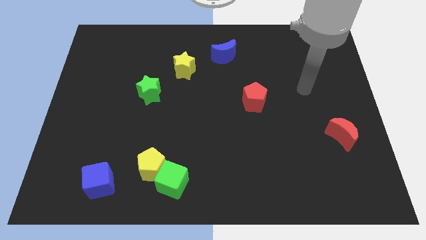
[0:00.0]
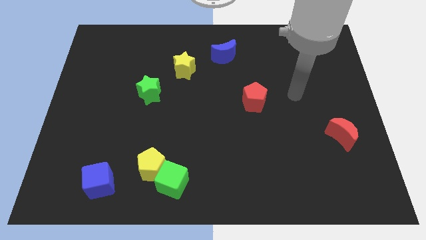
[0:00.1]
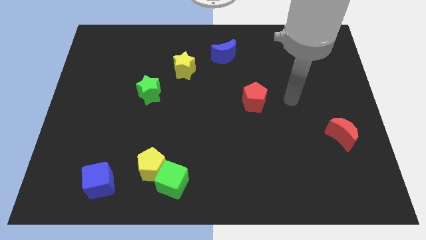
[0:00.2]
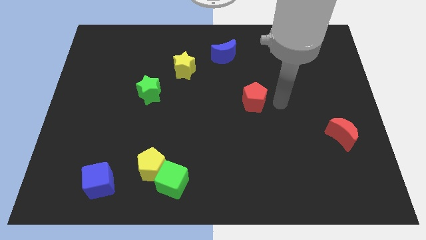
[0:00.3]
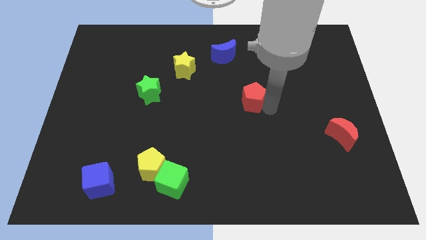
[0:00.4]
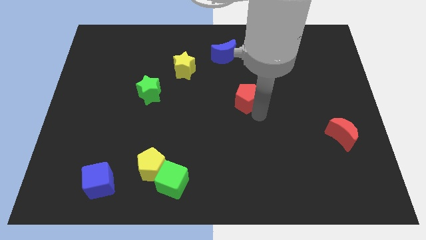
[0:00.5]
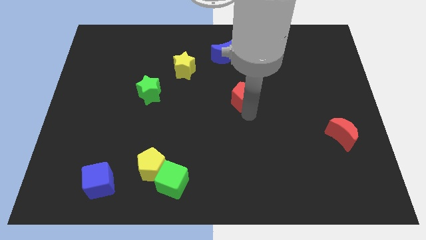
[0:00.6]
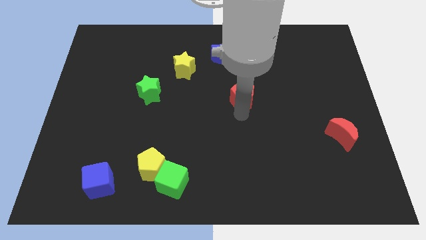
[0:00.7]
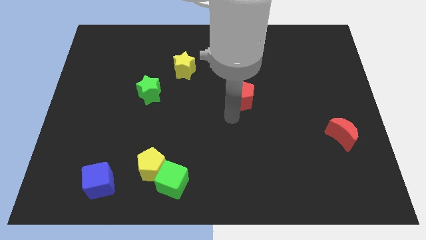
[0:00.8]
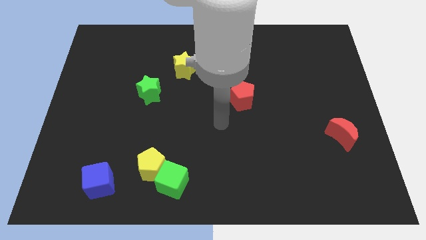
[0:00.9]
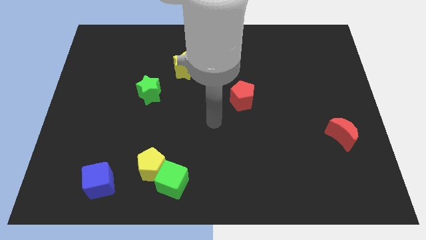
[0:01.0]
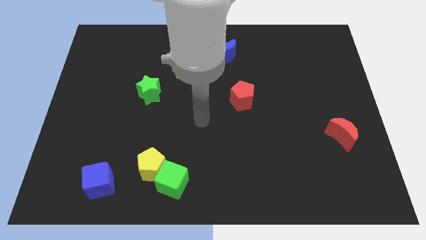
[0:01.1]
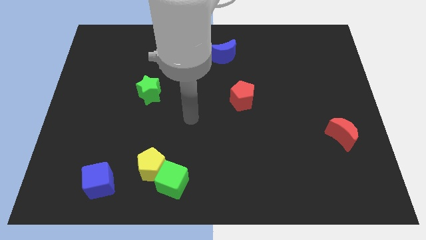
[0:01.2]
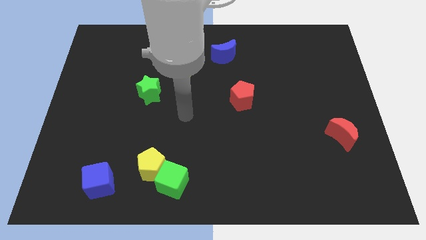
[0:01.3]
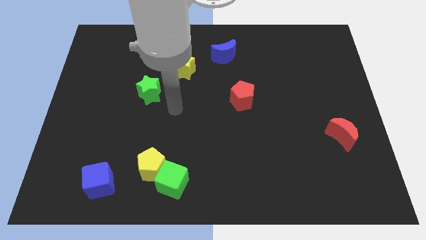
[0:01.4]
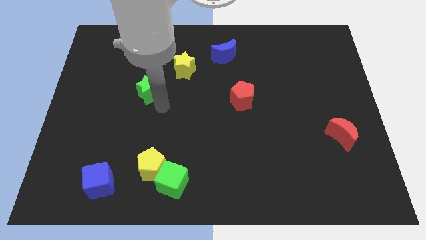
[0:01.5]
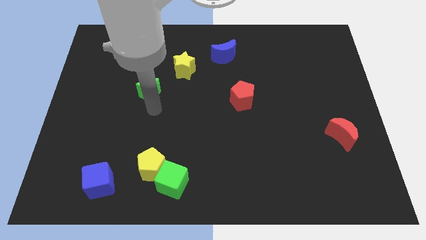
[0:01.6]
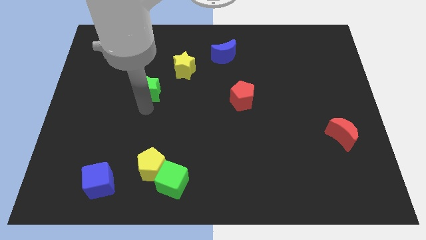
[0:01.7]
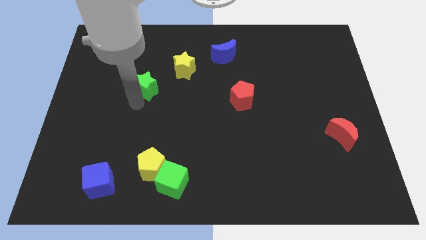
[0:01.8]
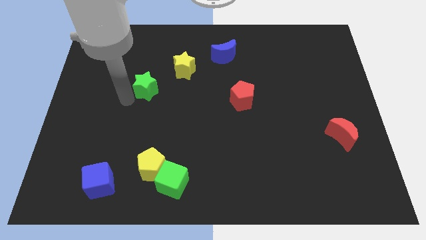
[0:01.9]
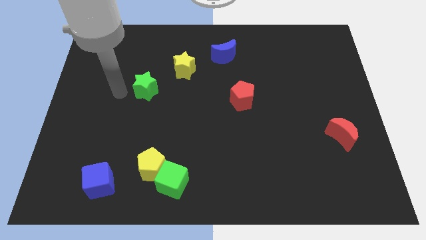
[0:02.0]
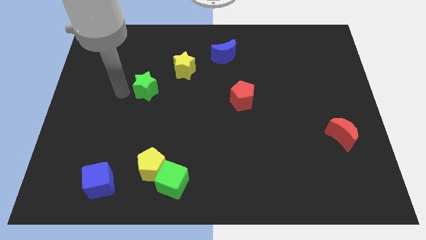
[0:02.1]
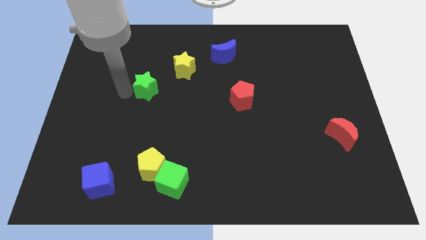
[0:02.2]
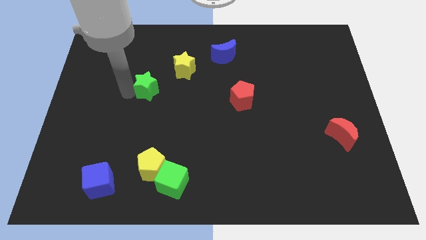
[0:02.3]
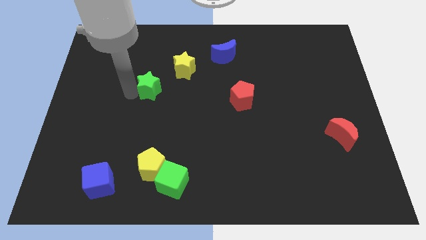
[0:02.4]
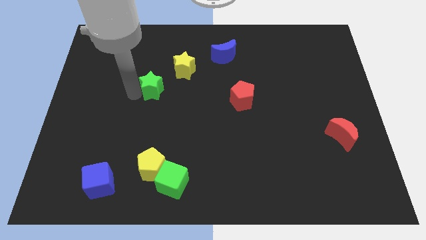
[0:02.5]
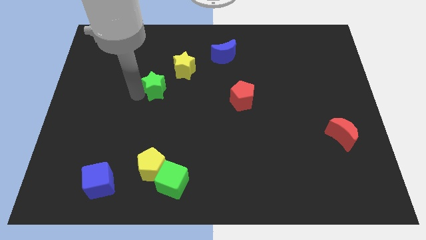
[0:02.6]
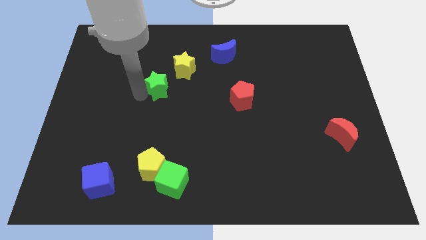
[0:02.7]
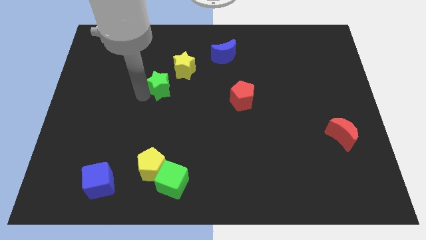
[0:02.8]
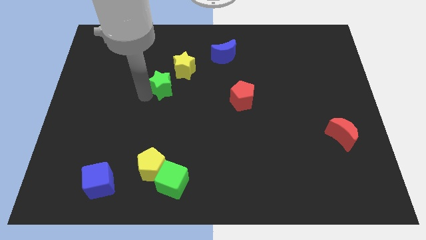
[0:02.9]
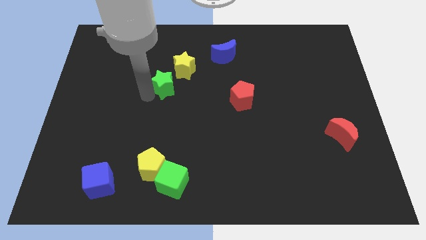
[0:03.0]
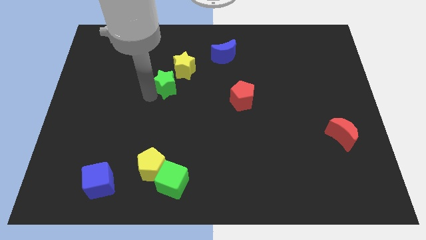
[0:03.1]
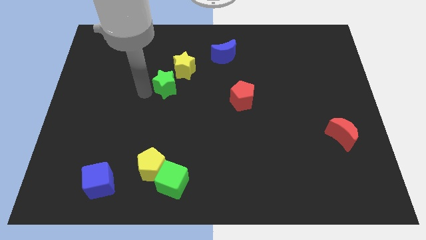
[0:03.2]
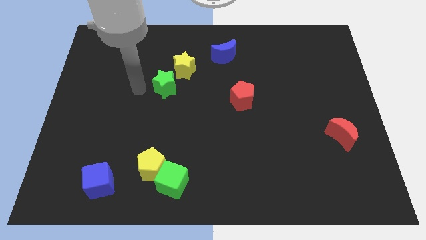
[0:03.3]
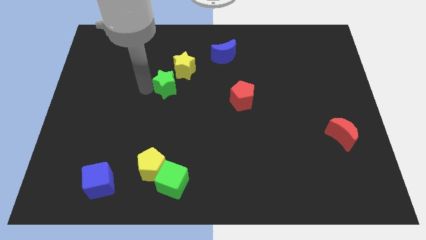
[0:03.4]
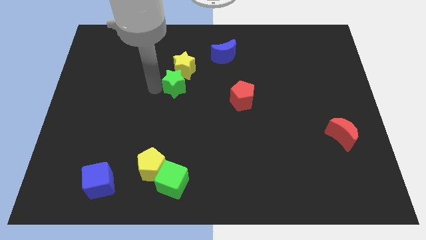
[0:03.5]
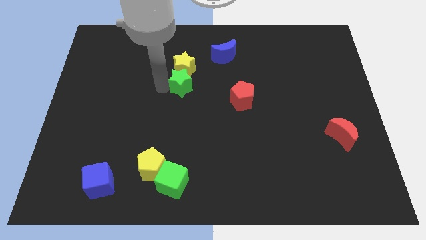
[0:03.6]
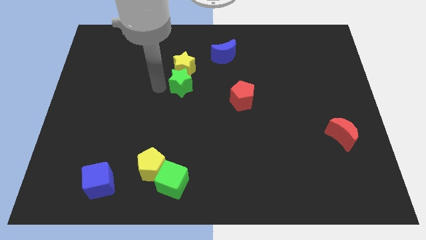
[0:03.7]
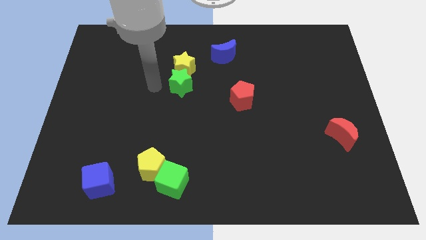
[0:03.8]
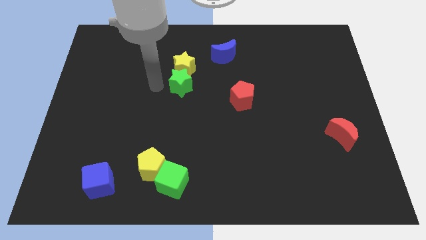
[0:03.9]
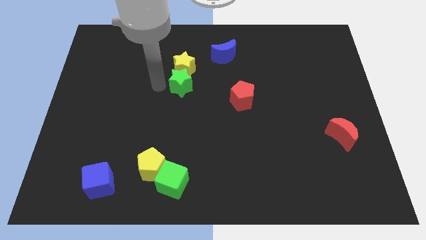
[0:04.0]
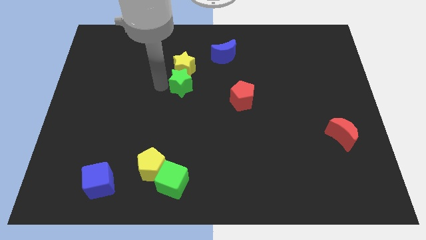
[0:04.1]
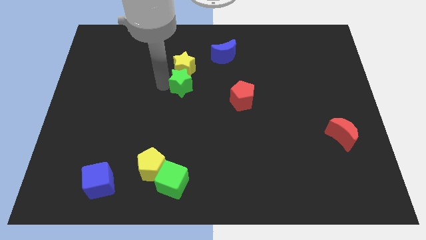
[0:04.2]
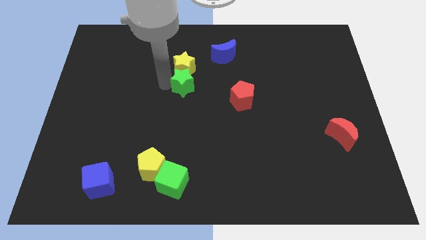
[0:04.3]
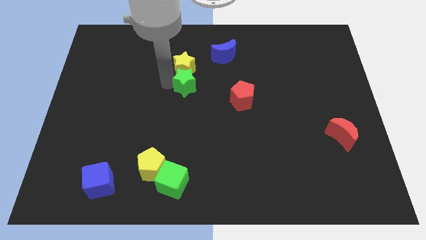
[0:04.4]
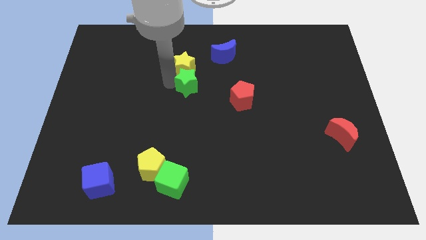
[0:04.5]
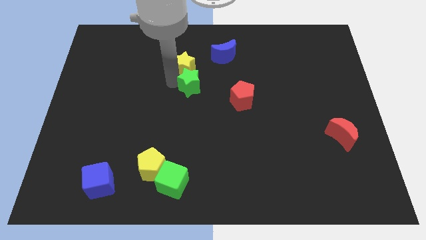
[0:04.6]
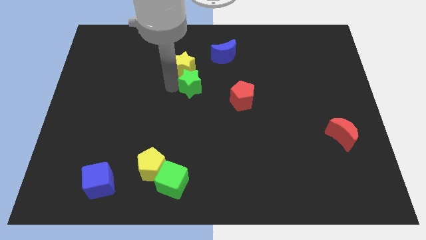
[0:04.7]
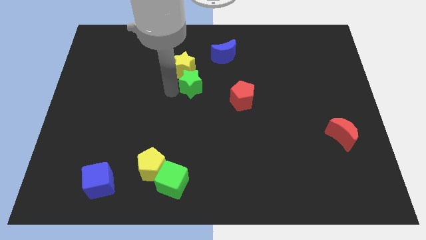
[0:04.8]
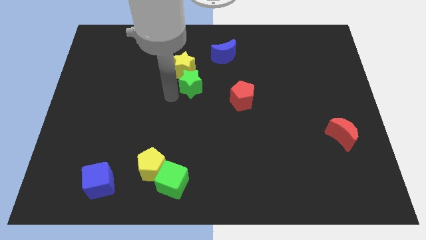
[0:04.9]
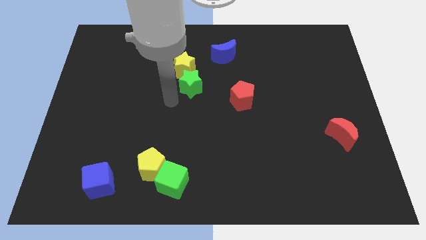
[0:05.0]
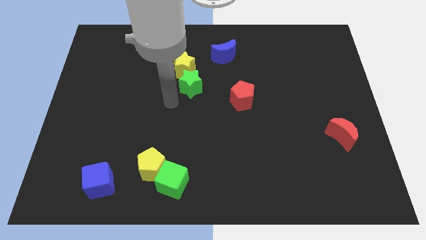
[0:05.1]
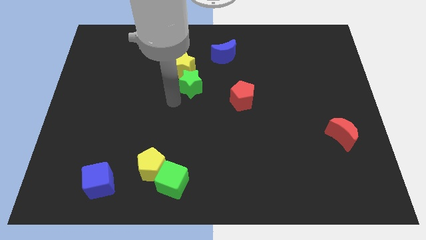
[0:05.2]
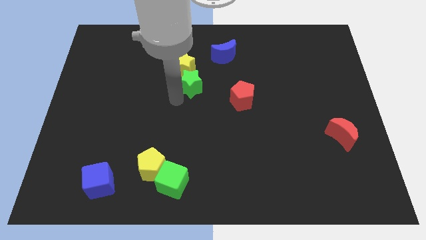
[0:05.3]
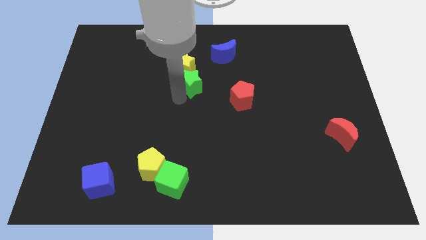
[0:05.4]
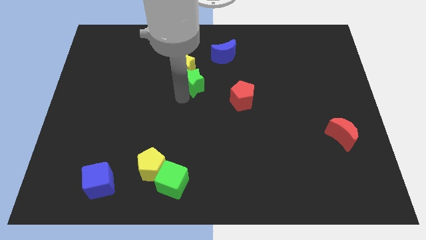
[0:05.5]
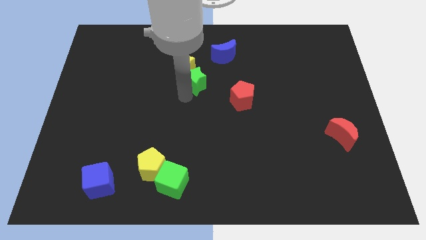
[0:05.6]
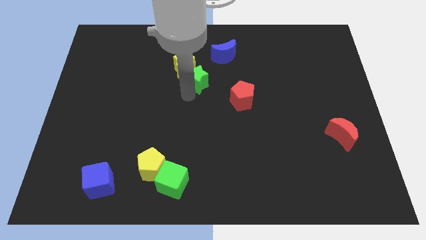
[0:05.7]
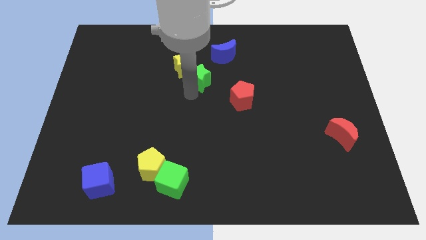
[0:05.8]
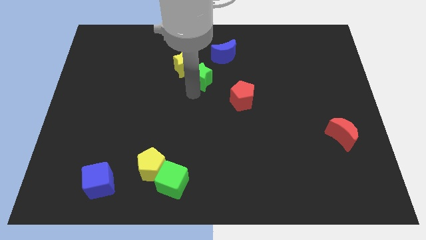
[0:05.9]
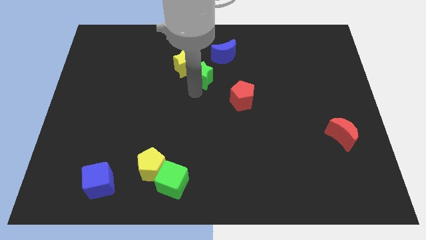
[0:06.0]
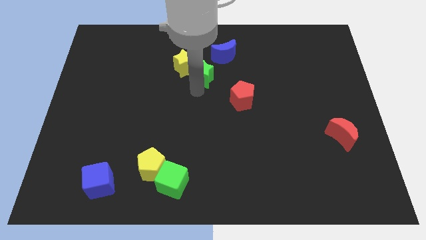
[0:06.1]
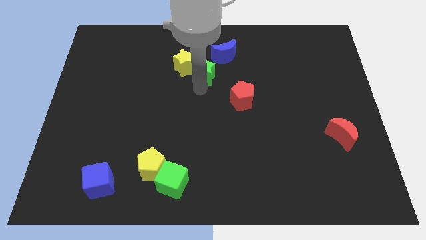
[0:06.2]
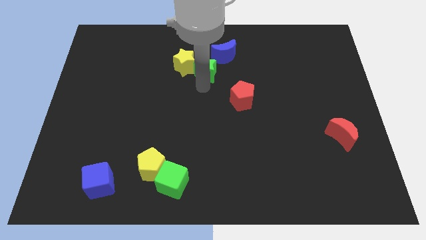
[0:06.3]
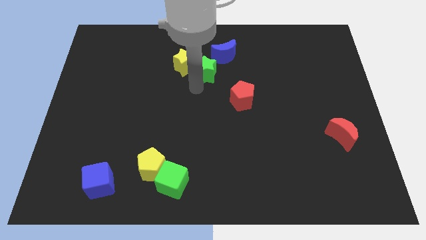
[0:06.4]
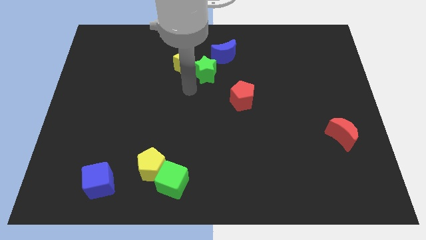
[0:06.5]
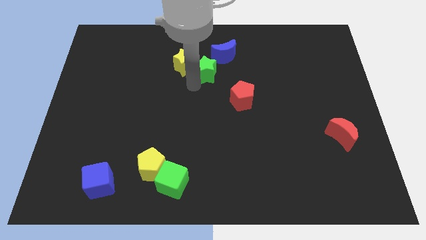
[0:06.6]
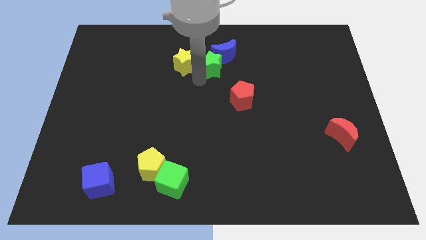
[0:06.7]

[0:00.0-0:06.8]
move the green star next to the blue moon

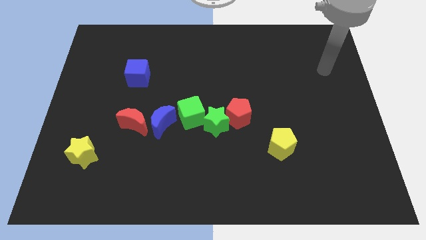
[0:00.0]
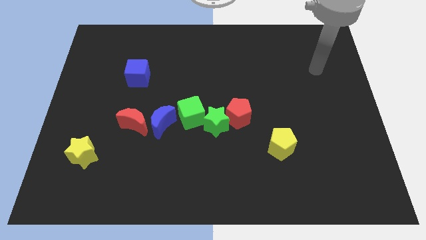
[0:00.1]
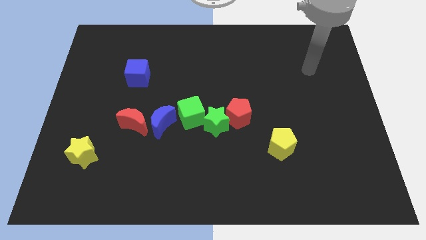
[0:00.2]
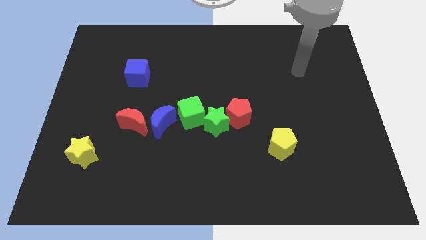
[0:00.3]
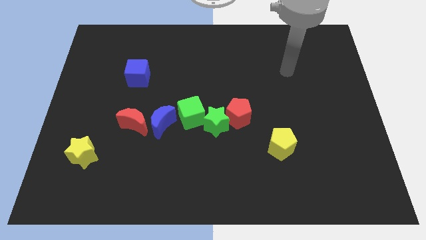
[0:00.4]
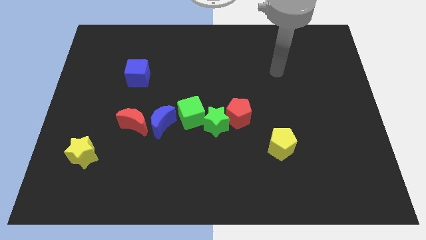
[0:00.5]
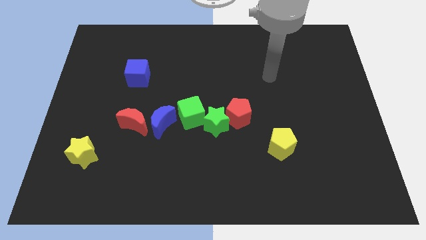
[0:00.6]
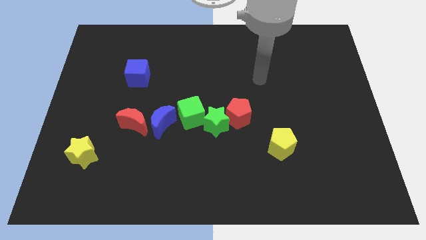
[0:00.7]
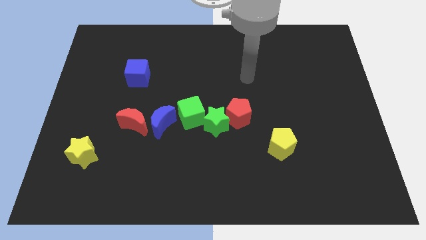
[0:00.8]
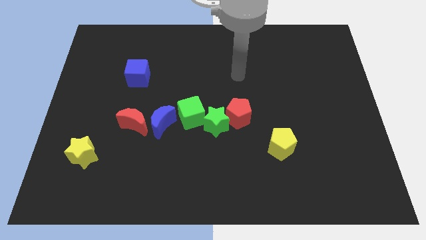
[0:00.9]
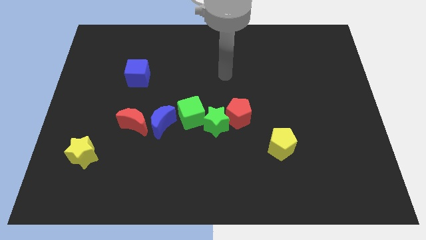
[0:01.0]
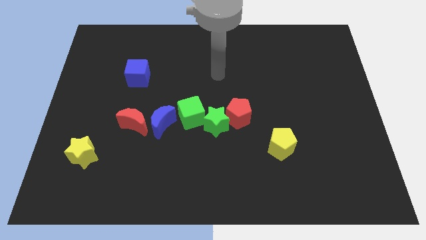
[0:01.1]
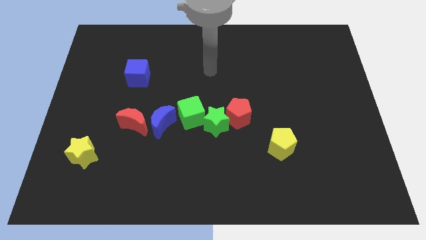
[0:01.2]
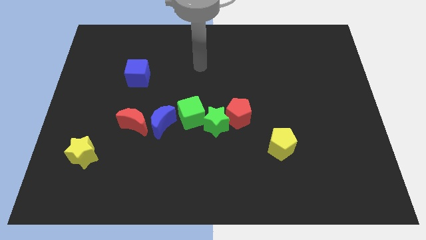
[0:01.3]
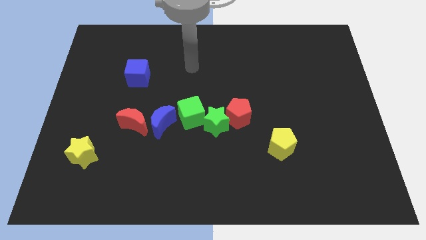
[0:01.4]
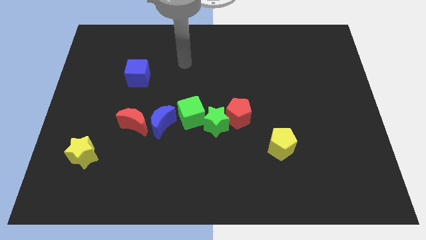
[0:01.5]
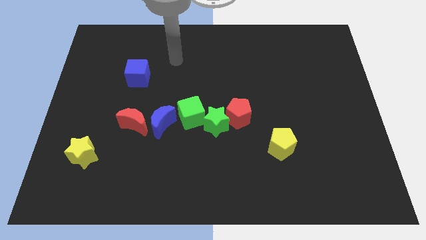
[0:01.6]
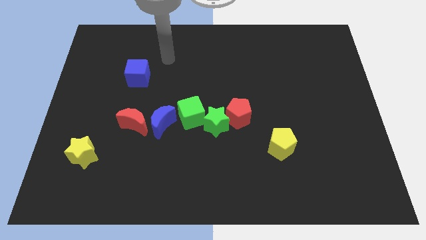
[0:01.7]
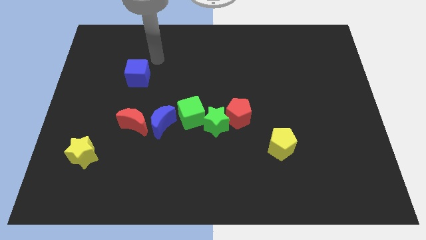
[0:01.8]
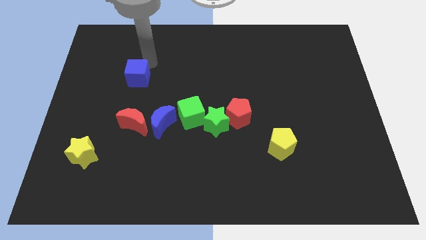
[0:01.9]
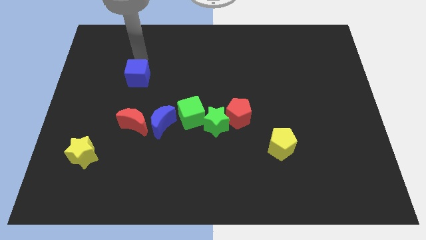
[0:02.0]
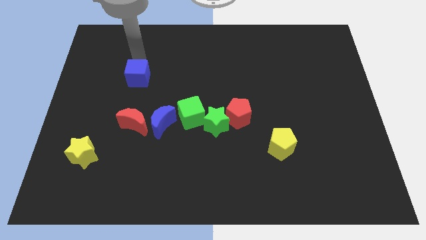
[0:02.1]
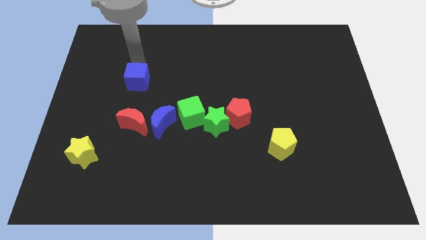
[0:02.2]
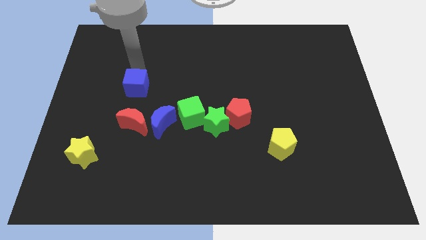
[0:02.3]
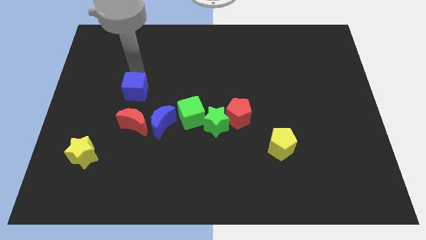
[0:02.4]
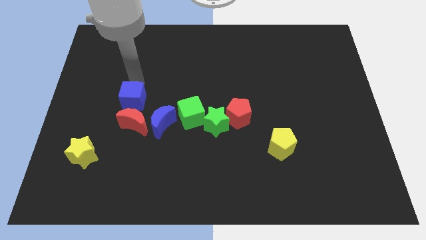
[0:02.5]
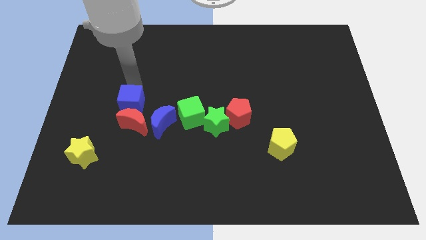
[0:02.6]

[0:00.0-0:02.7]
put the blue cube next to the red moon
